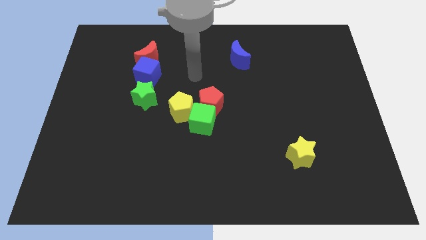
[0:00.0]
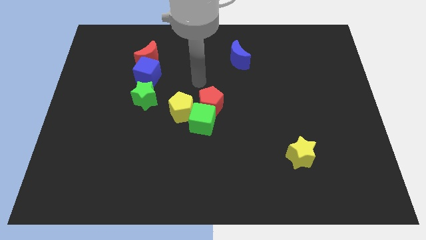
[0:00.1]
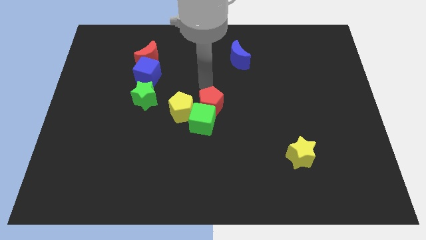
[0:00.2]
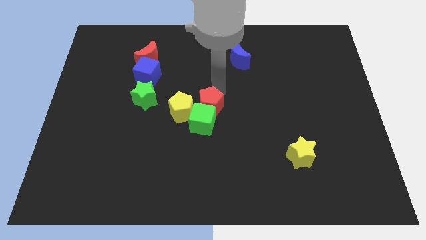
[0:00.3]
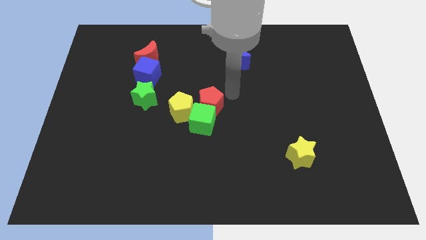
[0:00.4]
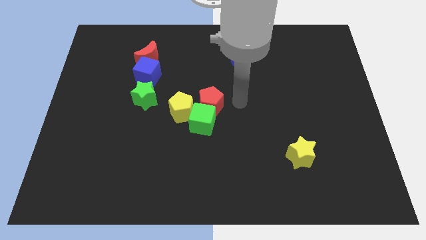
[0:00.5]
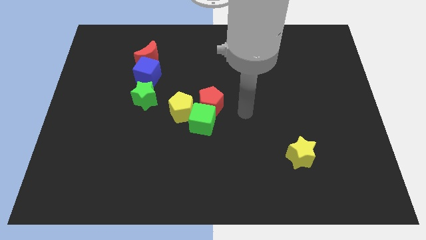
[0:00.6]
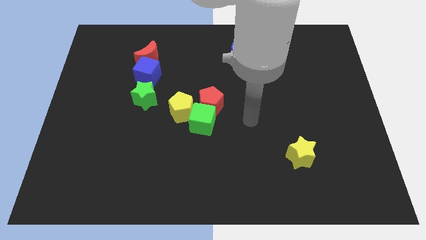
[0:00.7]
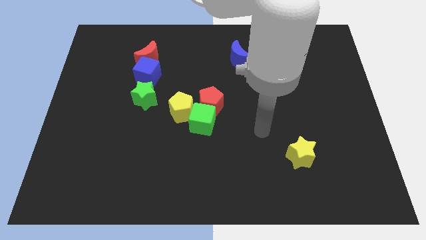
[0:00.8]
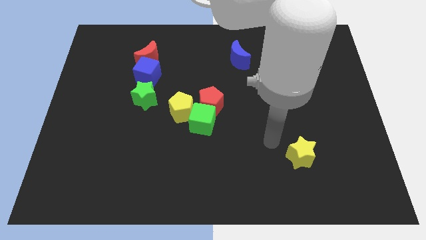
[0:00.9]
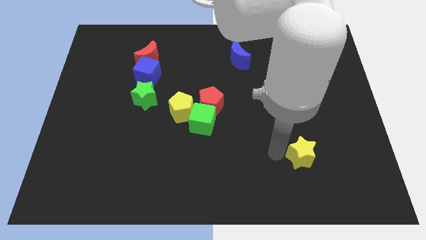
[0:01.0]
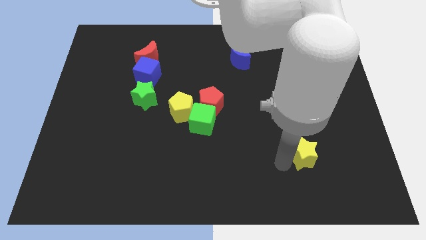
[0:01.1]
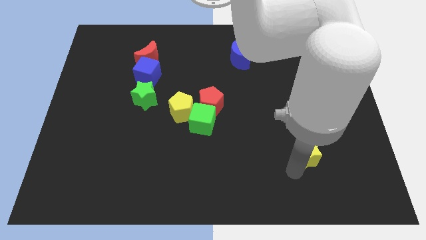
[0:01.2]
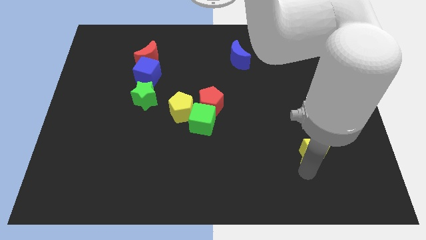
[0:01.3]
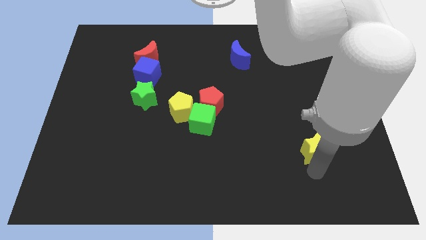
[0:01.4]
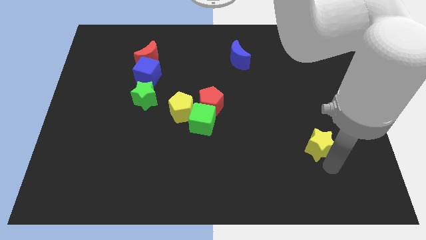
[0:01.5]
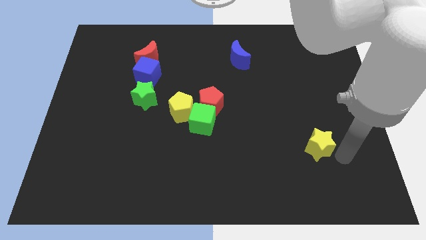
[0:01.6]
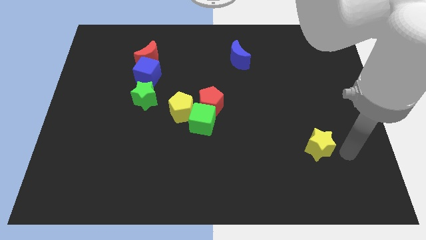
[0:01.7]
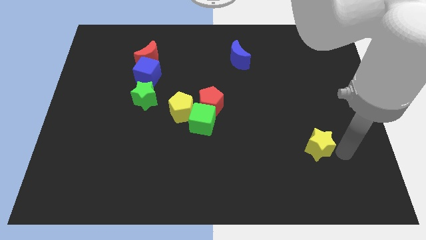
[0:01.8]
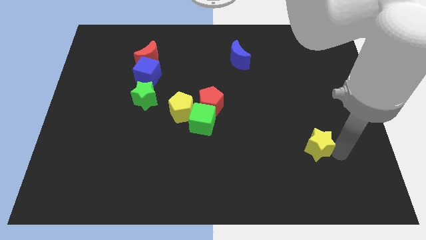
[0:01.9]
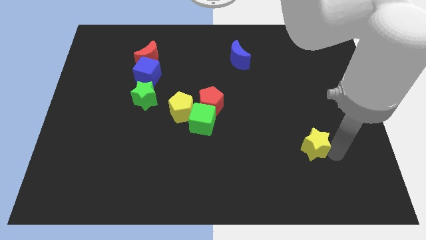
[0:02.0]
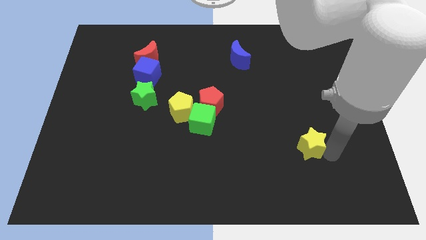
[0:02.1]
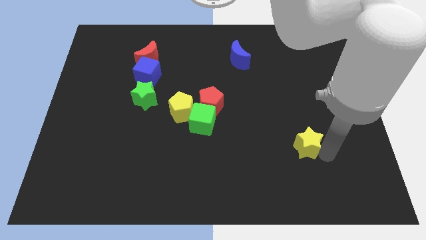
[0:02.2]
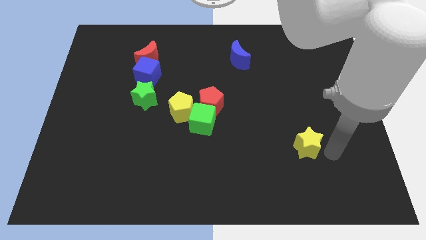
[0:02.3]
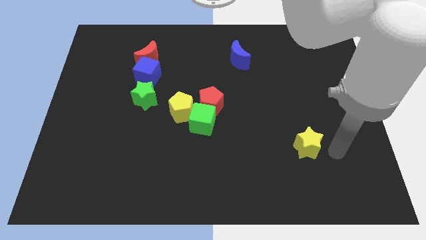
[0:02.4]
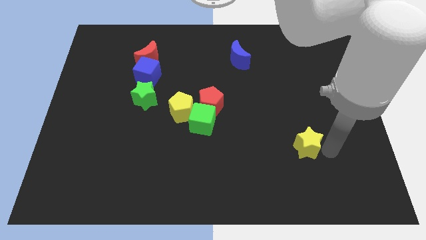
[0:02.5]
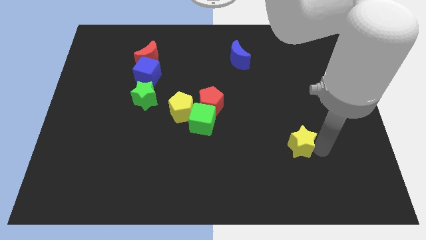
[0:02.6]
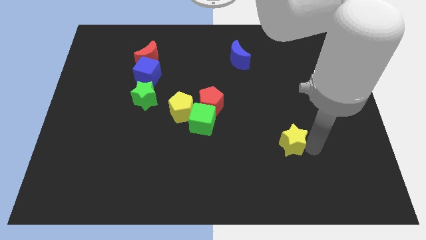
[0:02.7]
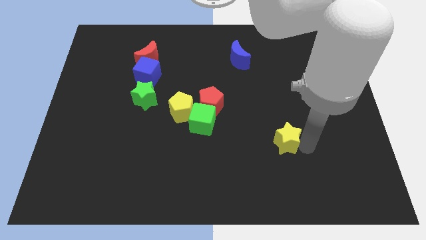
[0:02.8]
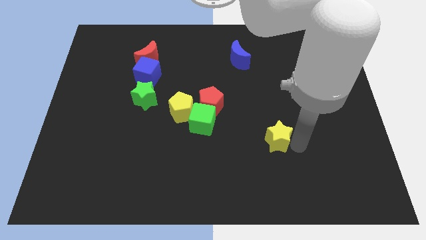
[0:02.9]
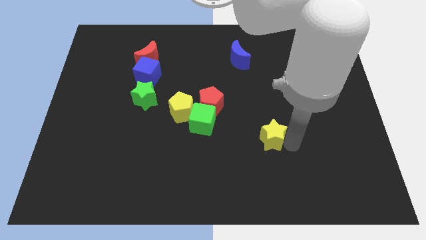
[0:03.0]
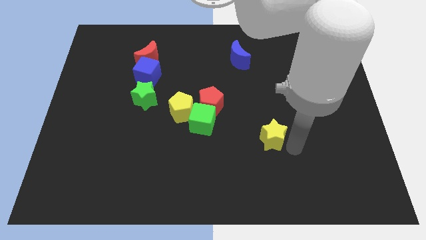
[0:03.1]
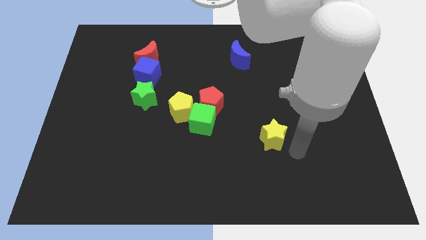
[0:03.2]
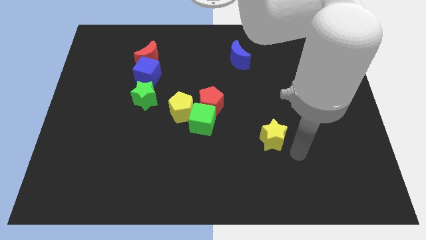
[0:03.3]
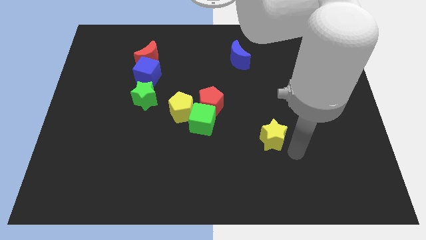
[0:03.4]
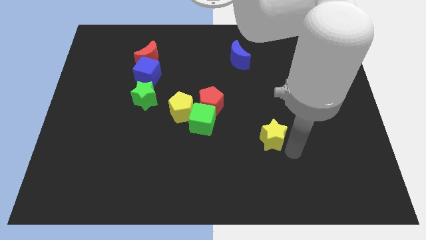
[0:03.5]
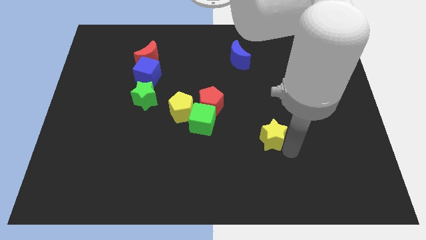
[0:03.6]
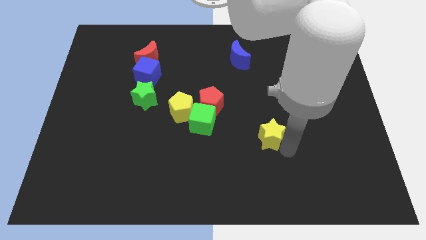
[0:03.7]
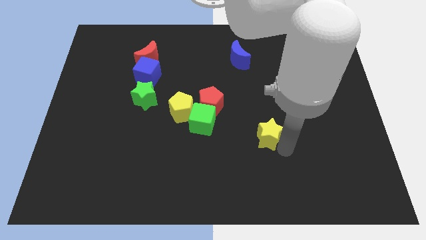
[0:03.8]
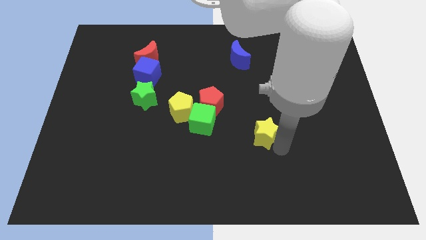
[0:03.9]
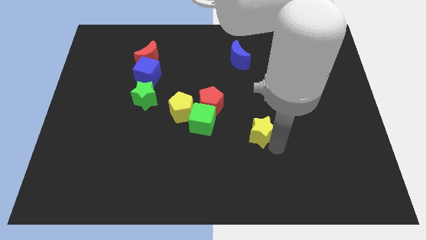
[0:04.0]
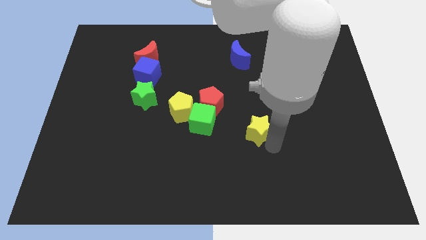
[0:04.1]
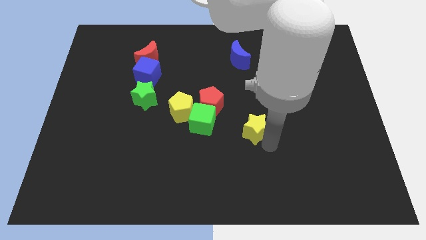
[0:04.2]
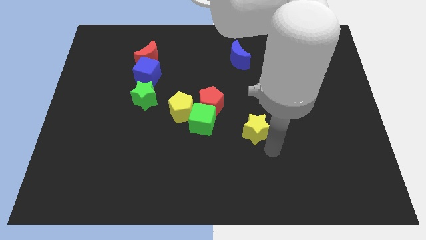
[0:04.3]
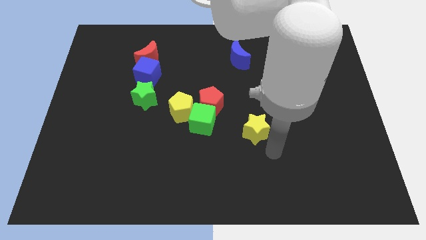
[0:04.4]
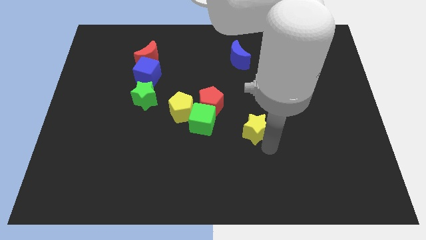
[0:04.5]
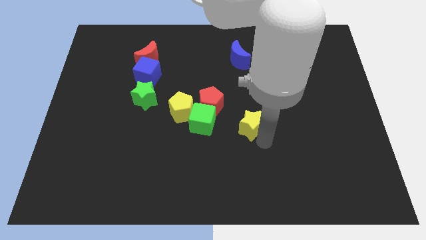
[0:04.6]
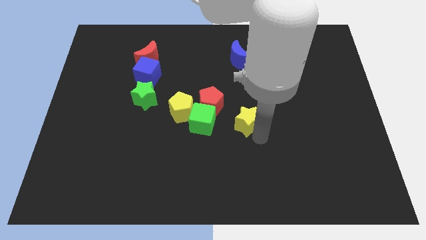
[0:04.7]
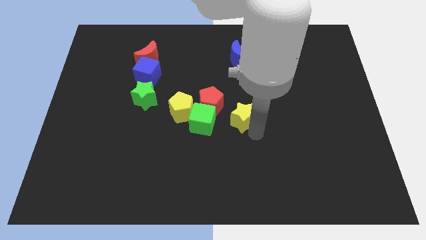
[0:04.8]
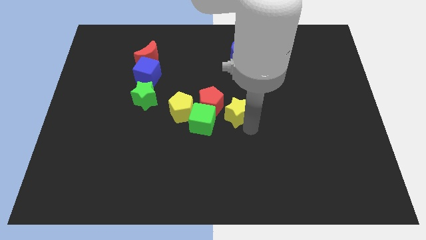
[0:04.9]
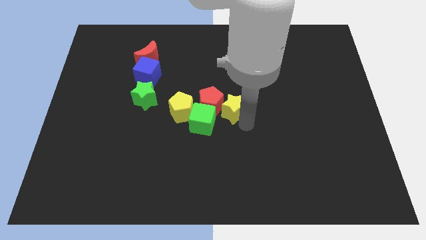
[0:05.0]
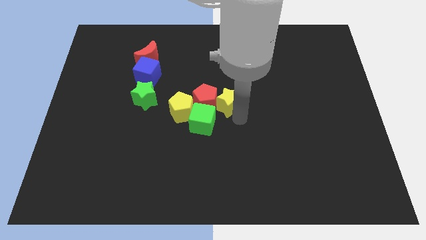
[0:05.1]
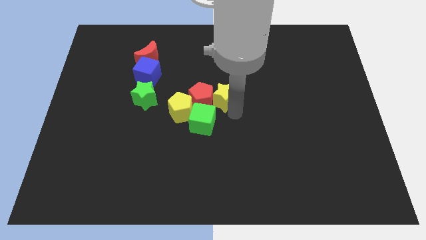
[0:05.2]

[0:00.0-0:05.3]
put the yellow star to the top of the green cube

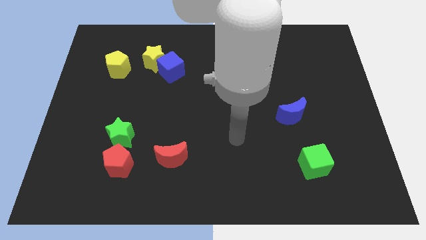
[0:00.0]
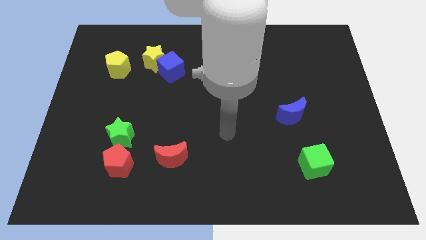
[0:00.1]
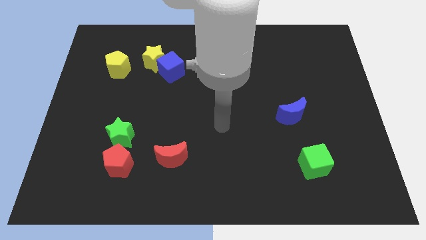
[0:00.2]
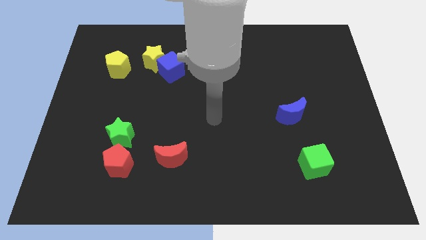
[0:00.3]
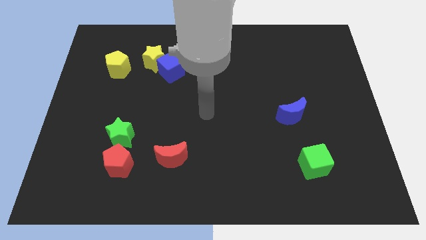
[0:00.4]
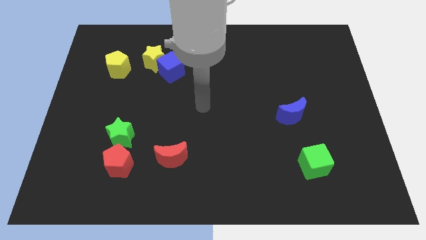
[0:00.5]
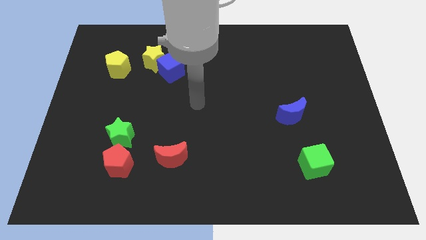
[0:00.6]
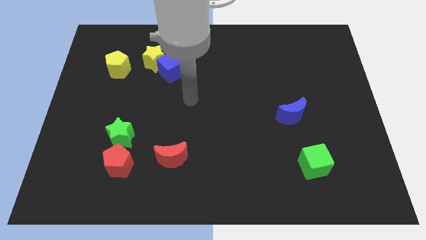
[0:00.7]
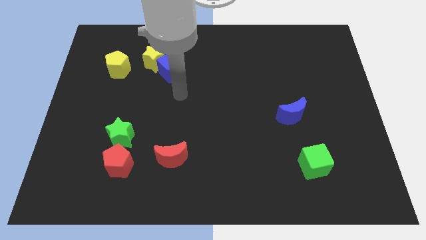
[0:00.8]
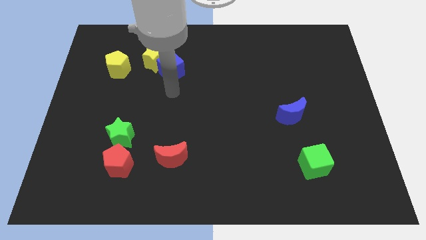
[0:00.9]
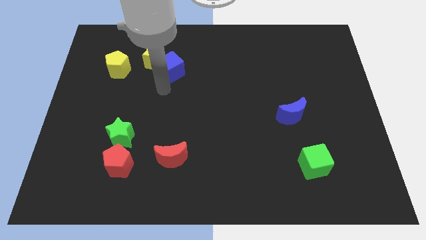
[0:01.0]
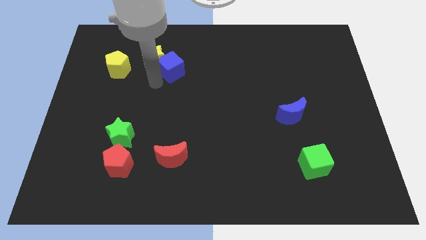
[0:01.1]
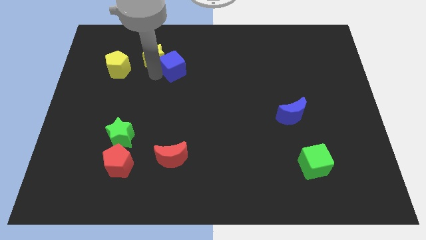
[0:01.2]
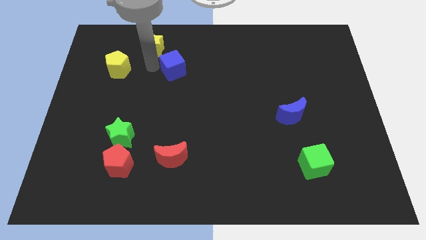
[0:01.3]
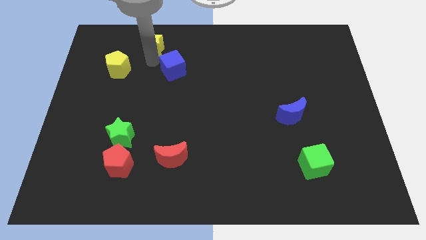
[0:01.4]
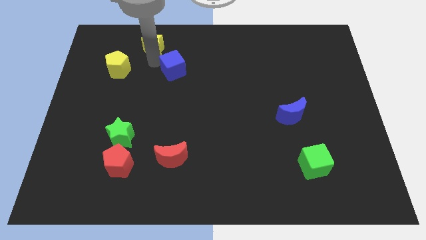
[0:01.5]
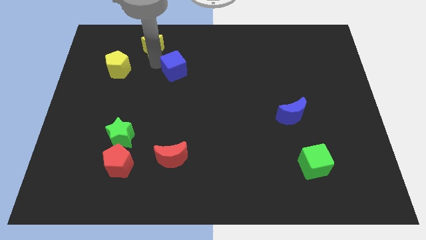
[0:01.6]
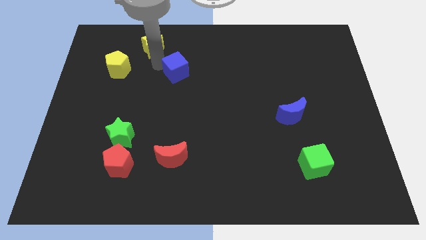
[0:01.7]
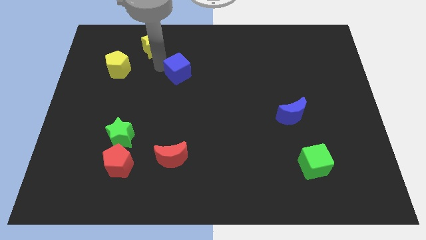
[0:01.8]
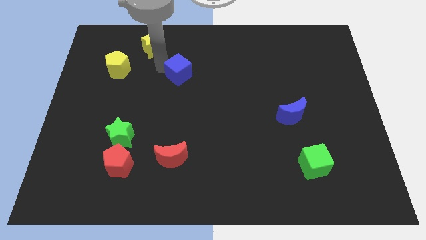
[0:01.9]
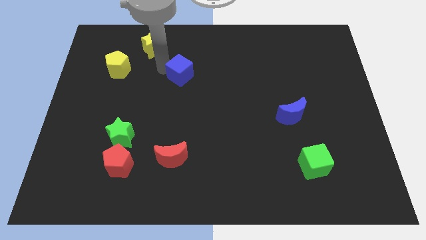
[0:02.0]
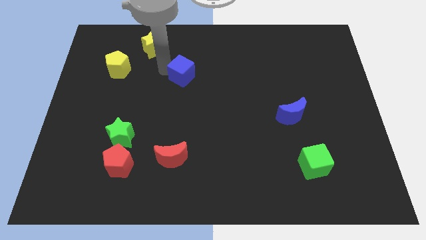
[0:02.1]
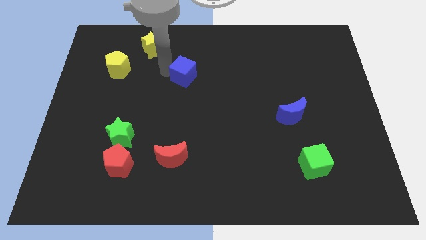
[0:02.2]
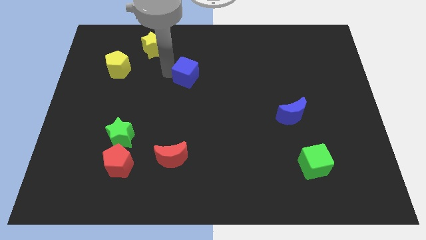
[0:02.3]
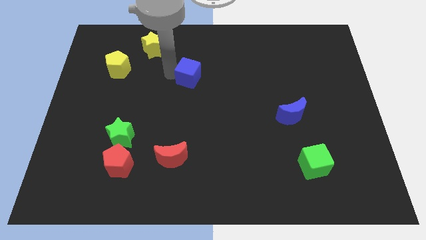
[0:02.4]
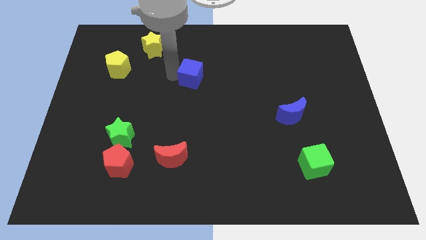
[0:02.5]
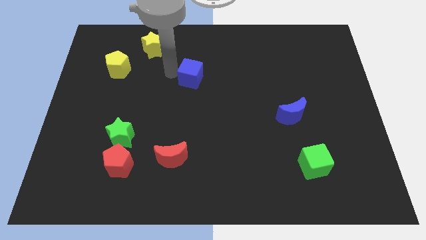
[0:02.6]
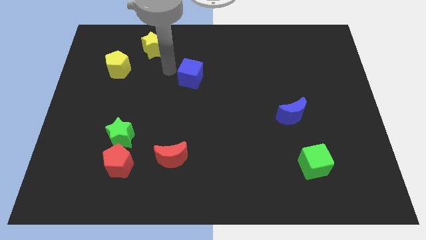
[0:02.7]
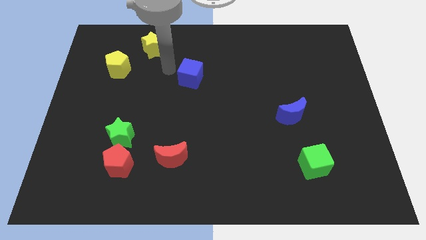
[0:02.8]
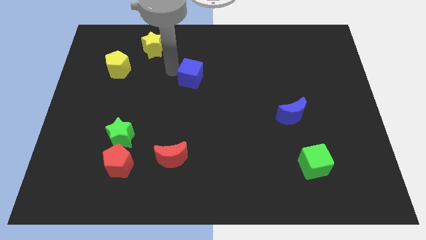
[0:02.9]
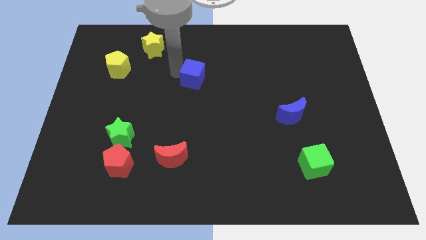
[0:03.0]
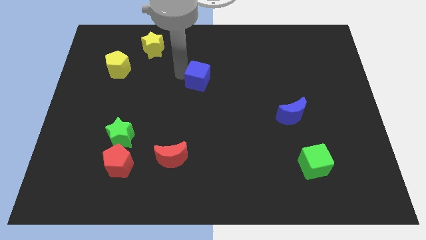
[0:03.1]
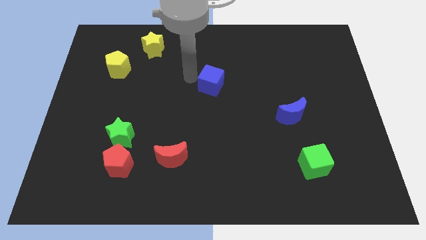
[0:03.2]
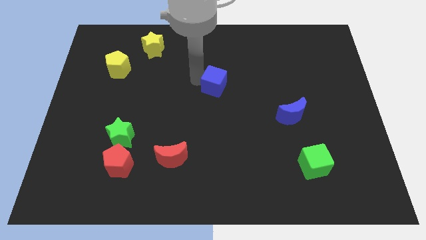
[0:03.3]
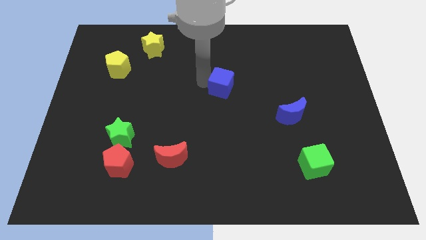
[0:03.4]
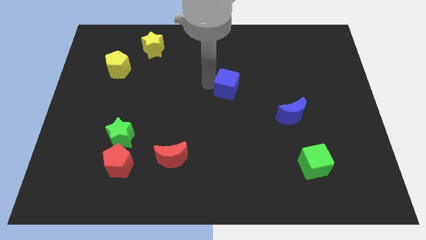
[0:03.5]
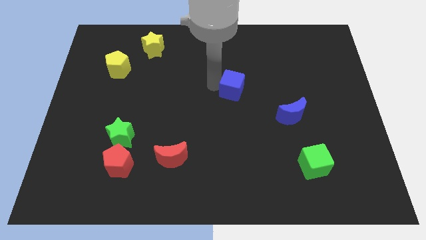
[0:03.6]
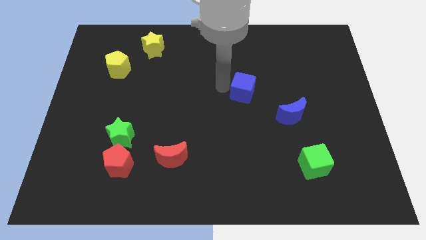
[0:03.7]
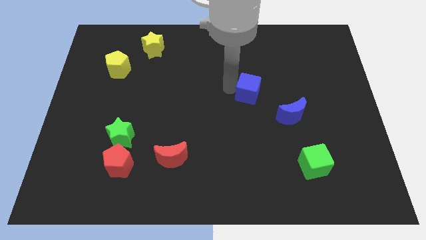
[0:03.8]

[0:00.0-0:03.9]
push the blue cube to the top left side of the blue moon
